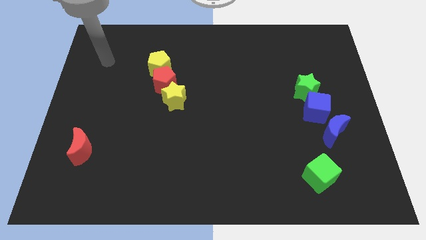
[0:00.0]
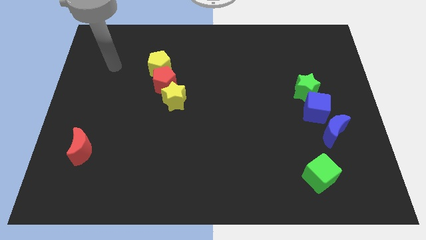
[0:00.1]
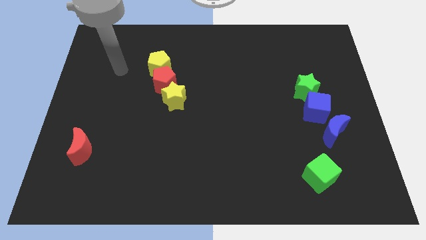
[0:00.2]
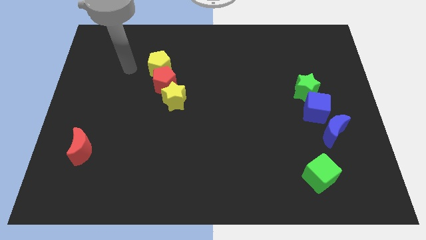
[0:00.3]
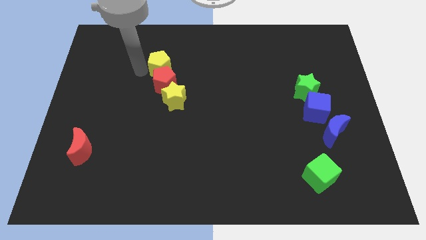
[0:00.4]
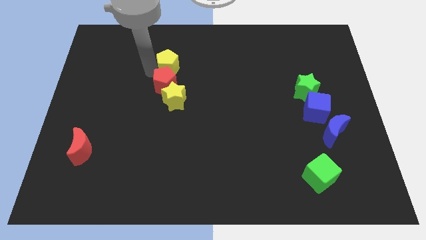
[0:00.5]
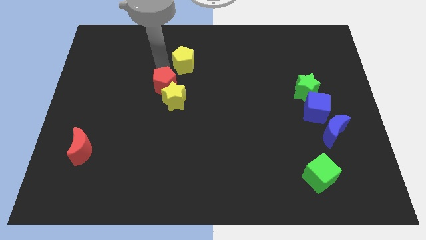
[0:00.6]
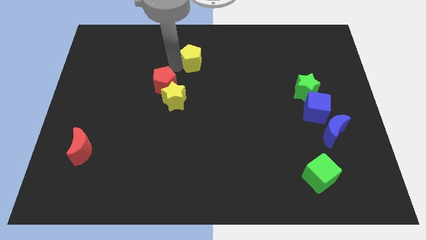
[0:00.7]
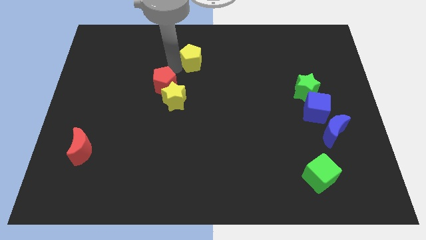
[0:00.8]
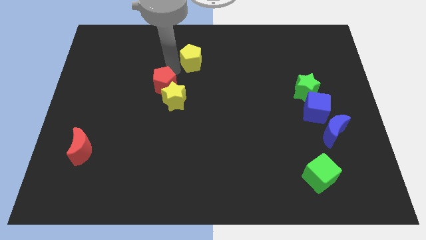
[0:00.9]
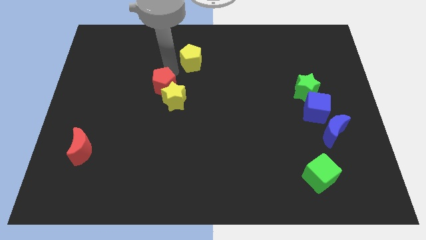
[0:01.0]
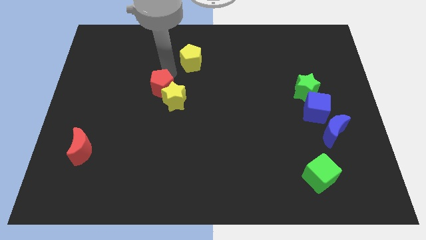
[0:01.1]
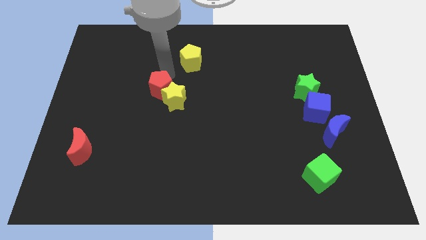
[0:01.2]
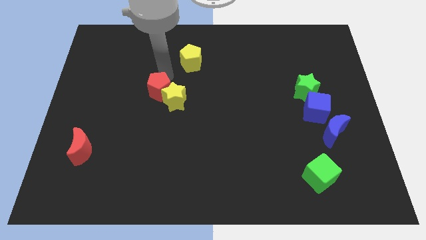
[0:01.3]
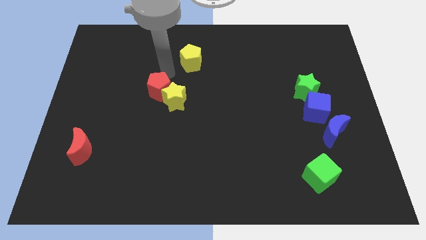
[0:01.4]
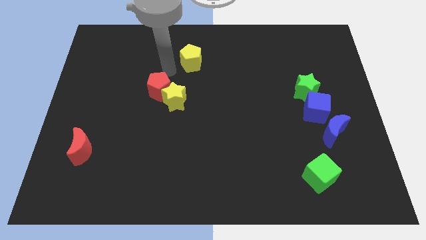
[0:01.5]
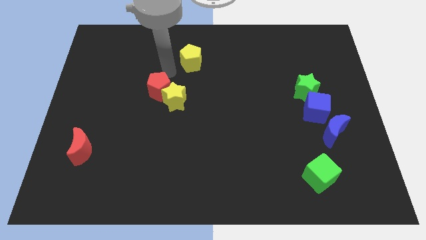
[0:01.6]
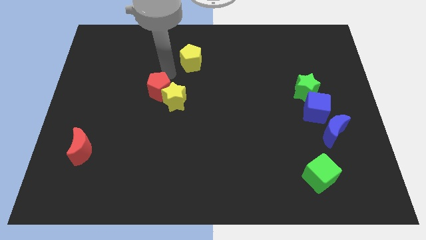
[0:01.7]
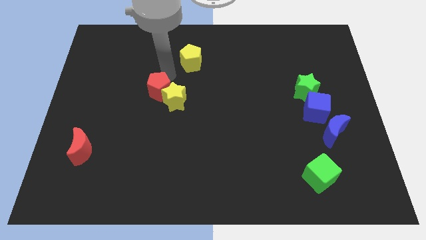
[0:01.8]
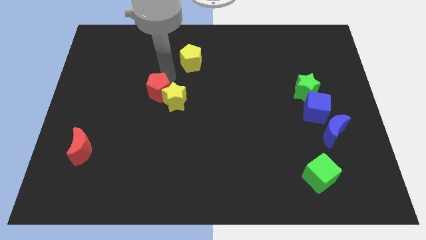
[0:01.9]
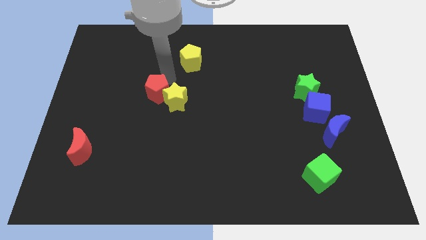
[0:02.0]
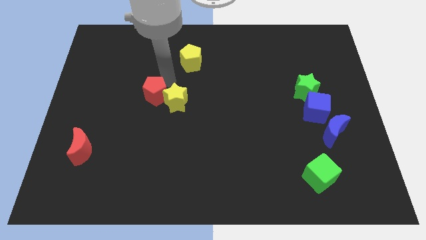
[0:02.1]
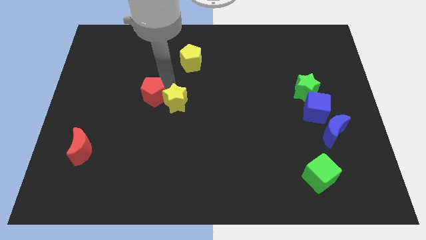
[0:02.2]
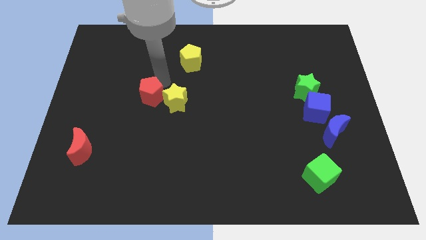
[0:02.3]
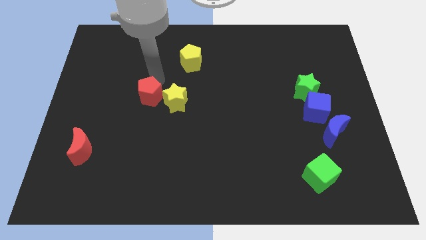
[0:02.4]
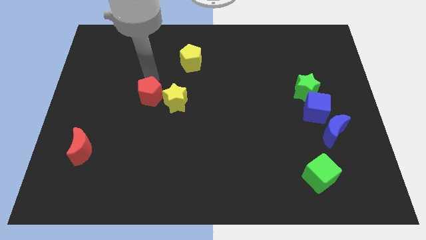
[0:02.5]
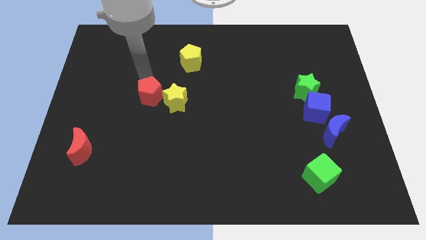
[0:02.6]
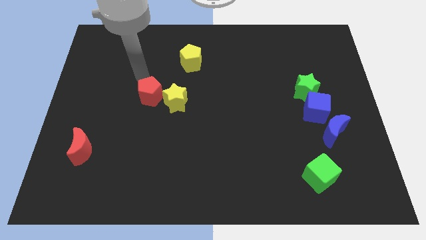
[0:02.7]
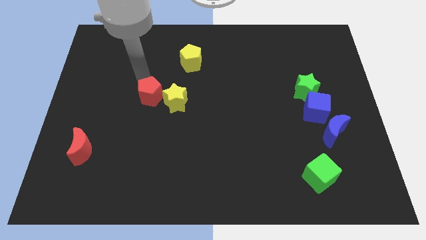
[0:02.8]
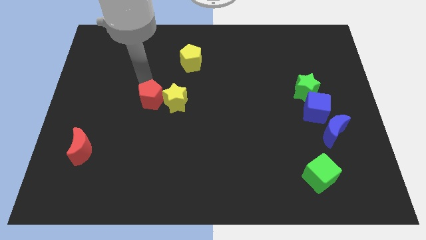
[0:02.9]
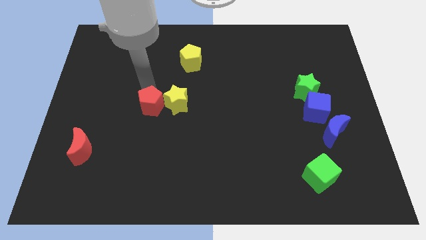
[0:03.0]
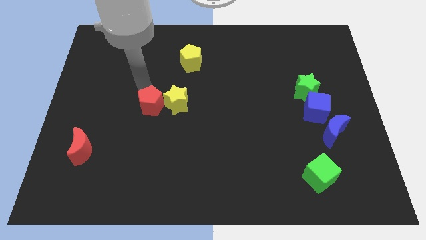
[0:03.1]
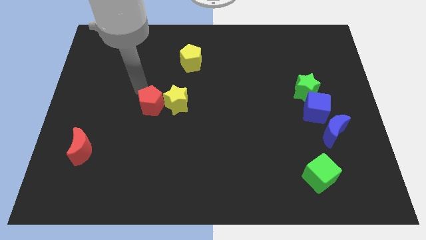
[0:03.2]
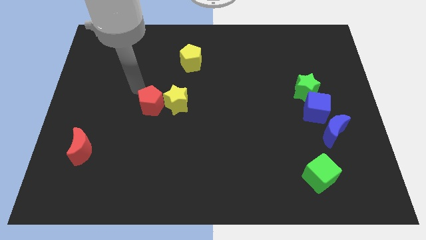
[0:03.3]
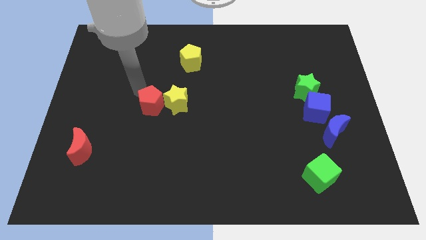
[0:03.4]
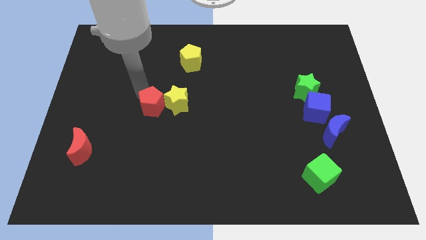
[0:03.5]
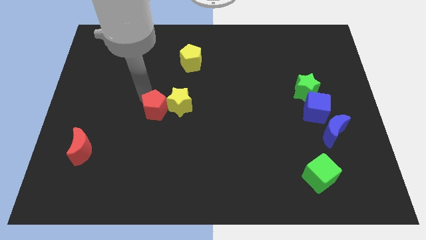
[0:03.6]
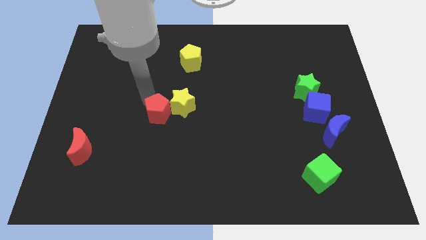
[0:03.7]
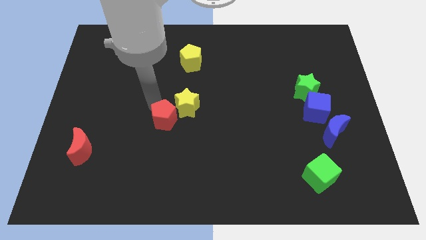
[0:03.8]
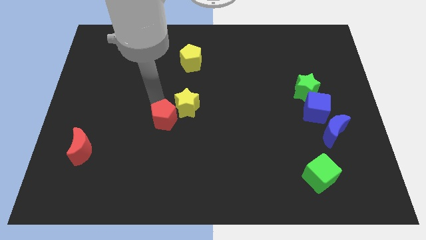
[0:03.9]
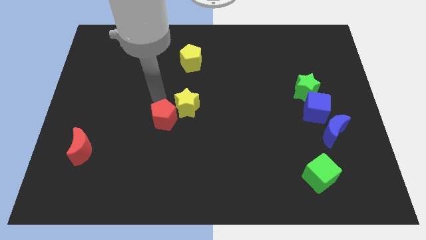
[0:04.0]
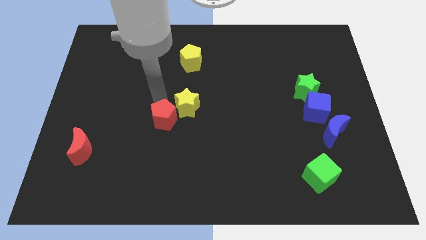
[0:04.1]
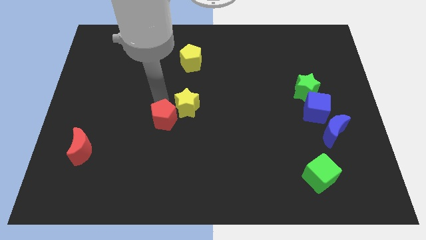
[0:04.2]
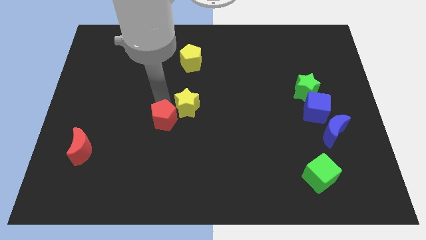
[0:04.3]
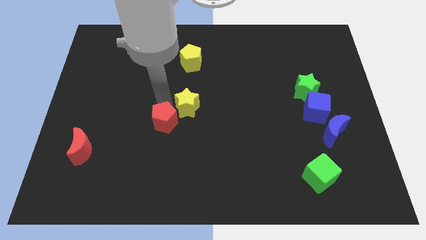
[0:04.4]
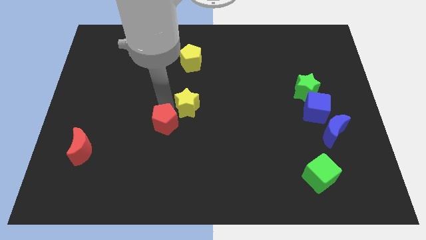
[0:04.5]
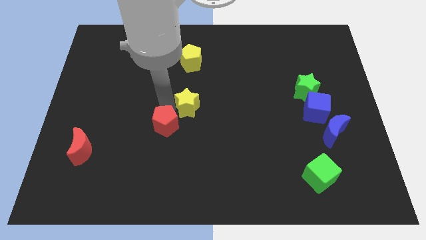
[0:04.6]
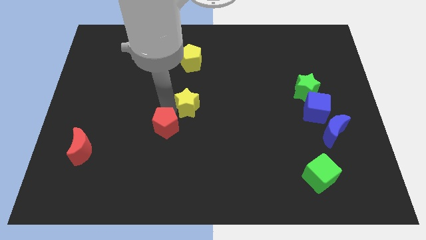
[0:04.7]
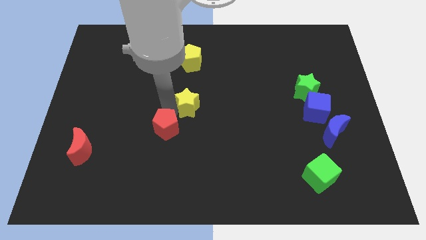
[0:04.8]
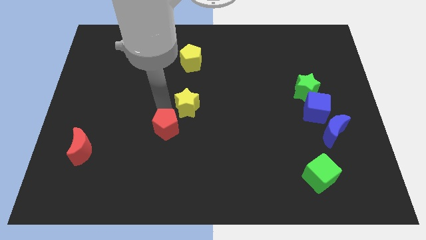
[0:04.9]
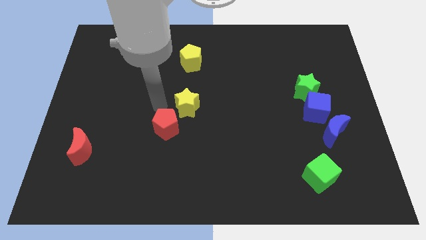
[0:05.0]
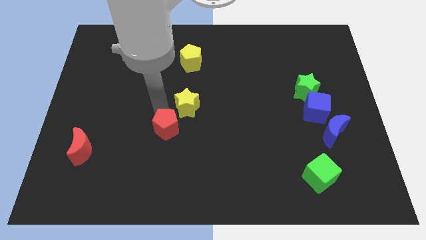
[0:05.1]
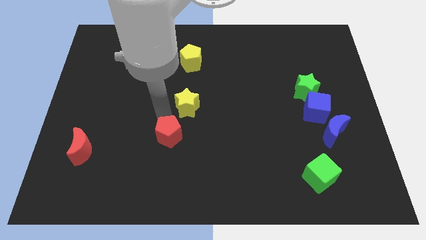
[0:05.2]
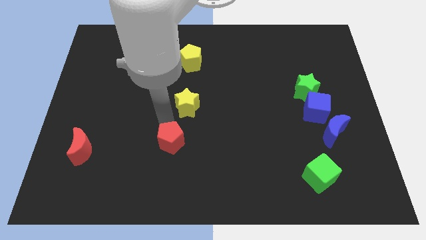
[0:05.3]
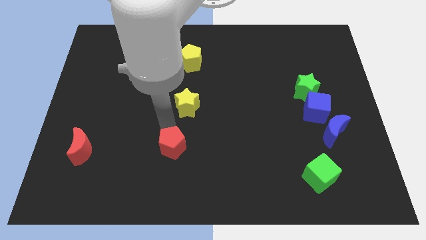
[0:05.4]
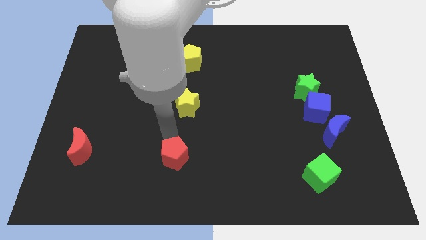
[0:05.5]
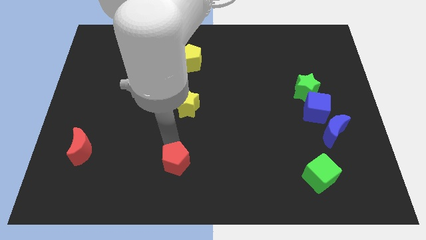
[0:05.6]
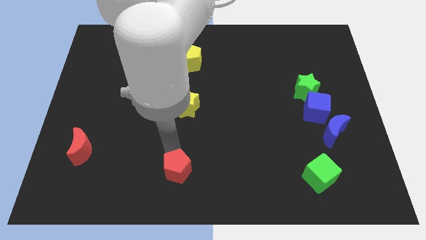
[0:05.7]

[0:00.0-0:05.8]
put the red pentagon to the bottom side

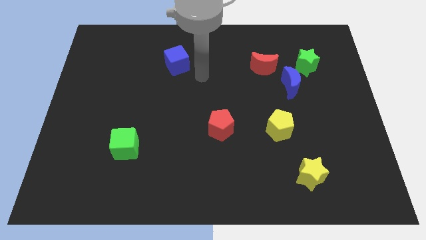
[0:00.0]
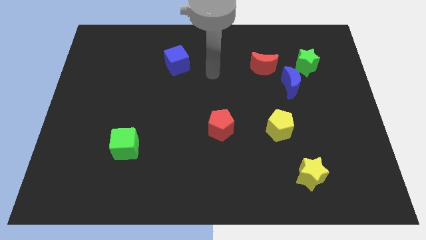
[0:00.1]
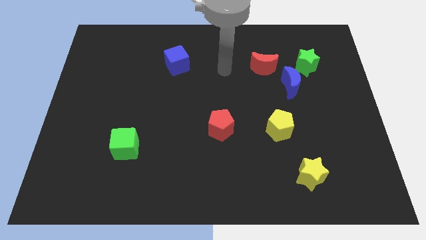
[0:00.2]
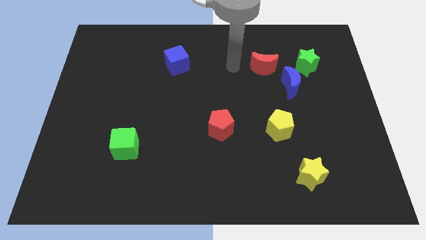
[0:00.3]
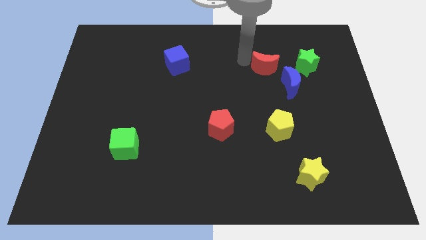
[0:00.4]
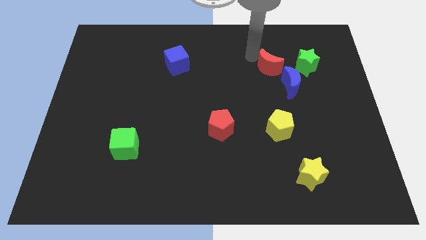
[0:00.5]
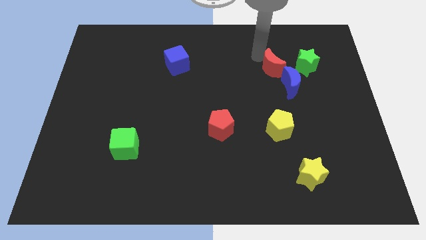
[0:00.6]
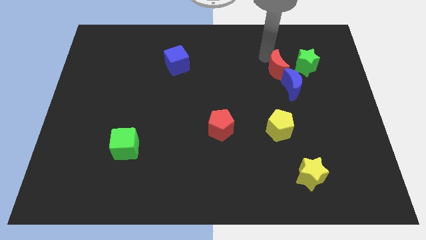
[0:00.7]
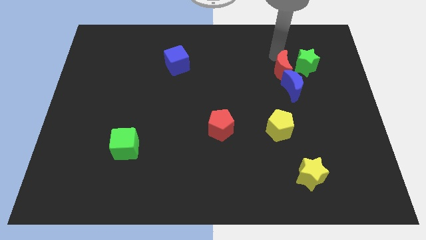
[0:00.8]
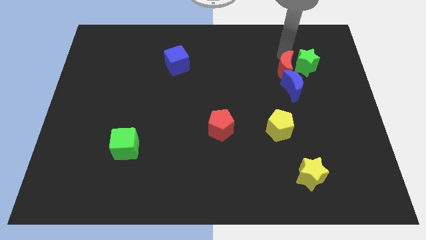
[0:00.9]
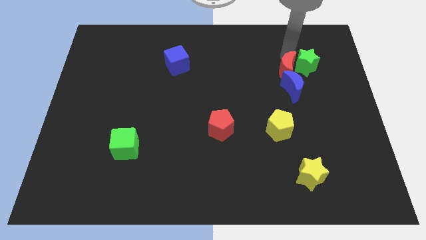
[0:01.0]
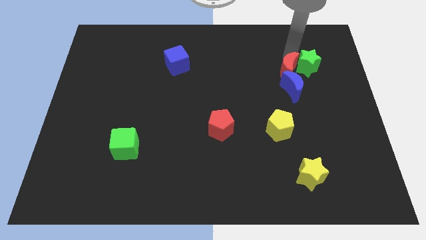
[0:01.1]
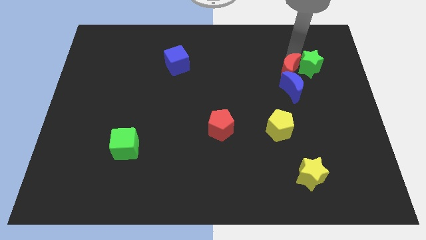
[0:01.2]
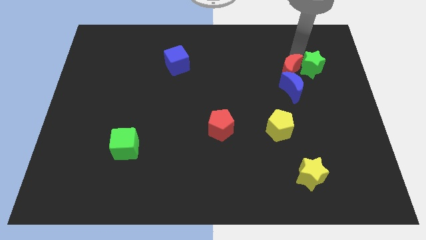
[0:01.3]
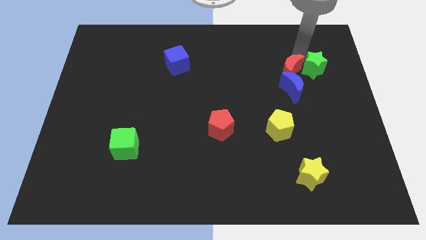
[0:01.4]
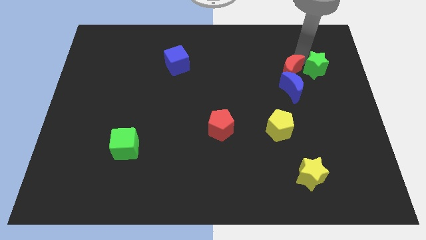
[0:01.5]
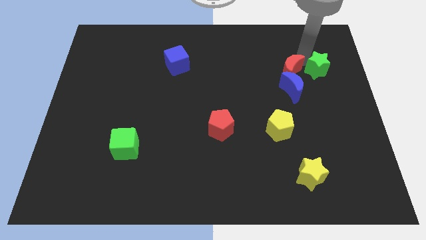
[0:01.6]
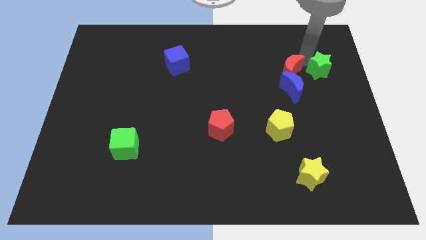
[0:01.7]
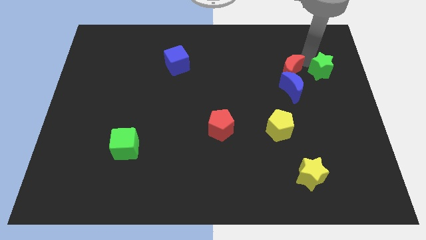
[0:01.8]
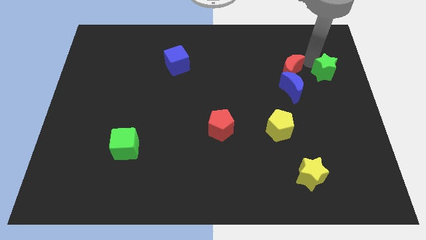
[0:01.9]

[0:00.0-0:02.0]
move the green star to the right side
